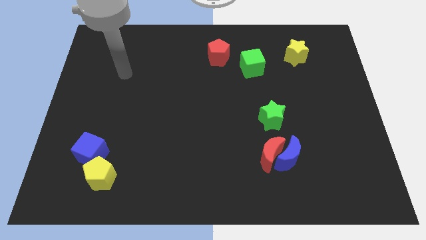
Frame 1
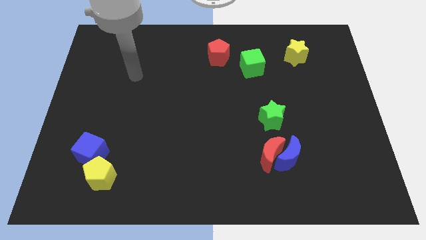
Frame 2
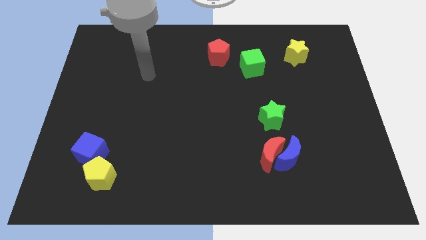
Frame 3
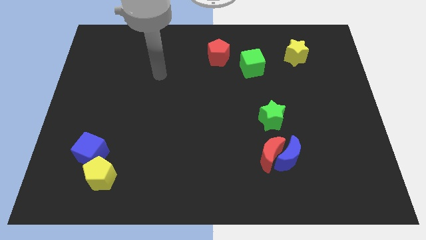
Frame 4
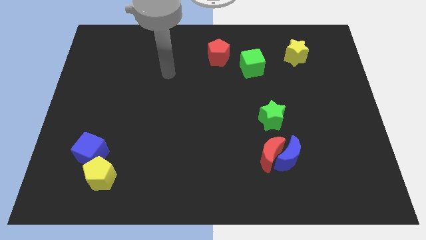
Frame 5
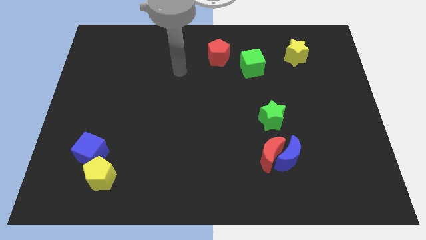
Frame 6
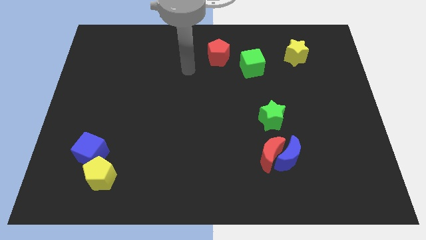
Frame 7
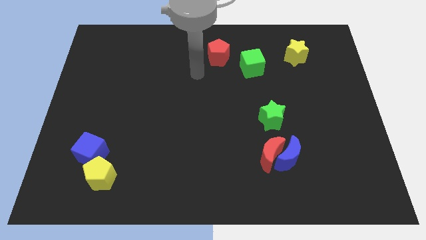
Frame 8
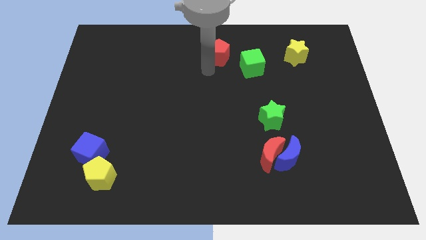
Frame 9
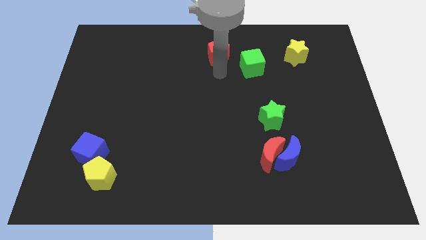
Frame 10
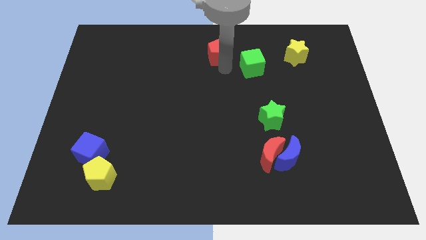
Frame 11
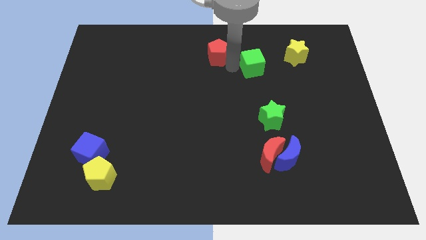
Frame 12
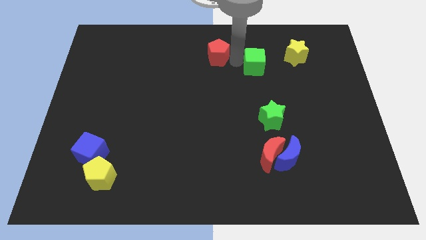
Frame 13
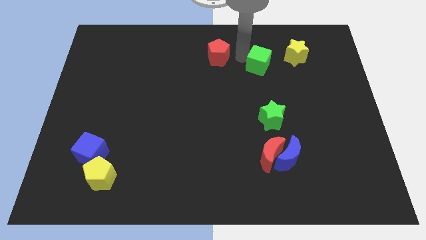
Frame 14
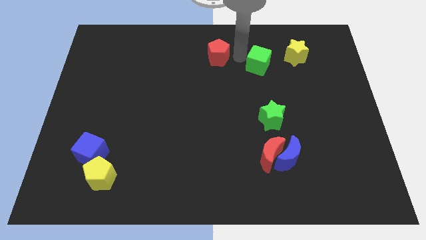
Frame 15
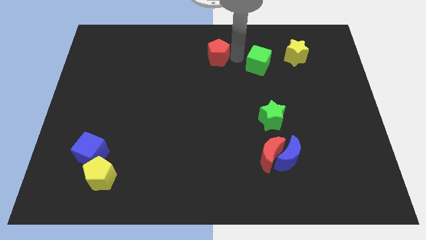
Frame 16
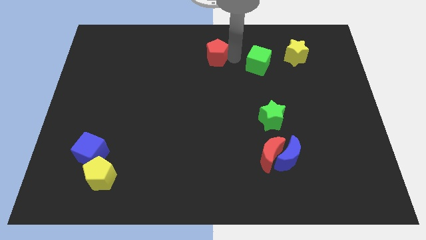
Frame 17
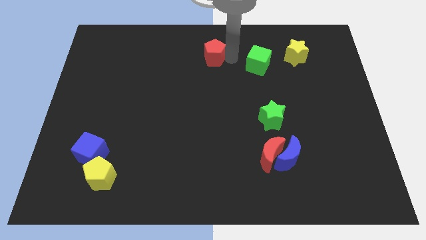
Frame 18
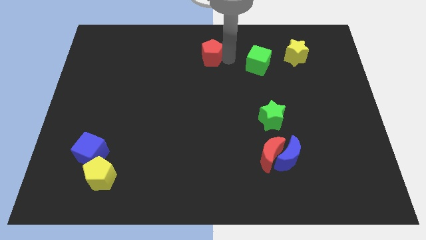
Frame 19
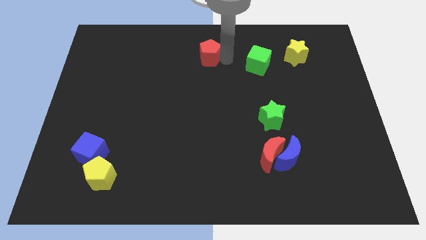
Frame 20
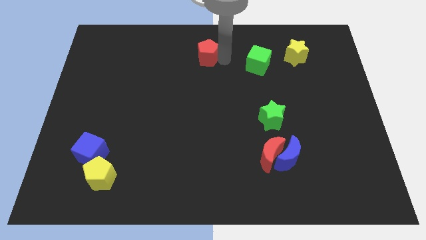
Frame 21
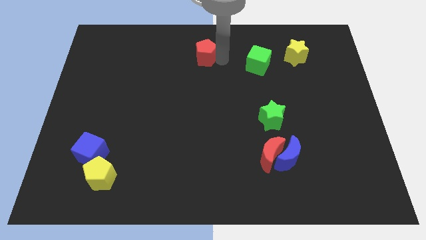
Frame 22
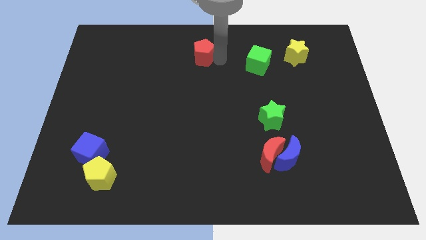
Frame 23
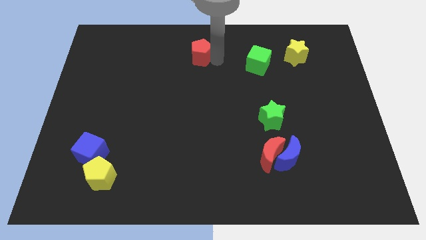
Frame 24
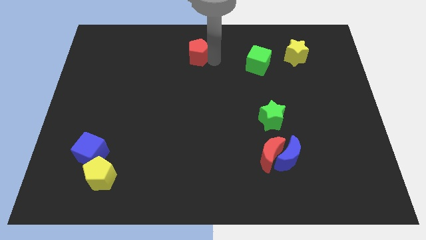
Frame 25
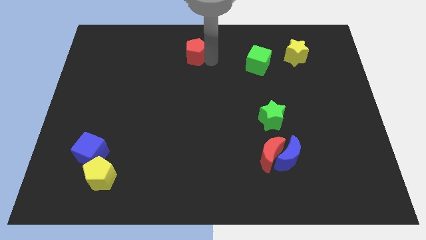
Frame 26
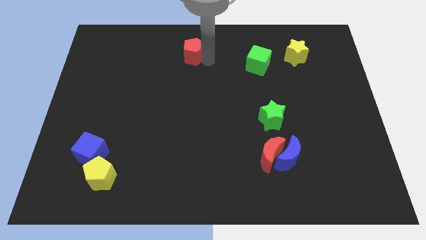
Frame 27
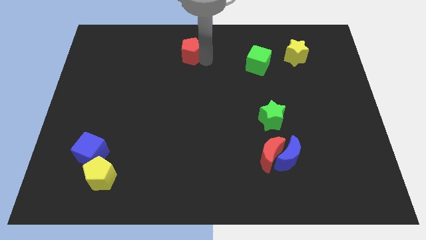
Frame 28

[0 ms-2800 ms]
push the red pentagon slightly left

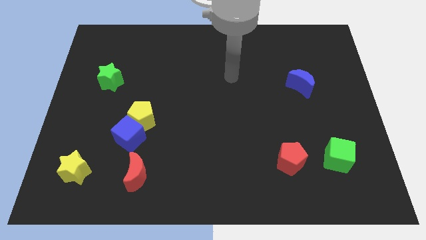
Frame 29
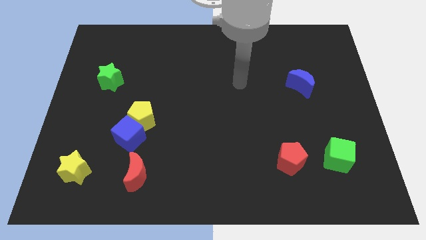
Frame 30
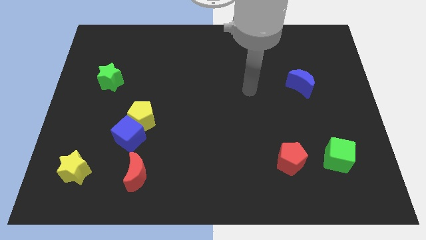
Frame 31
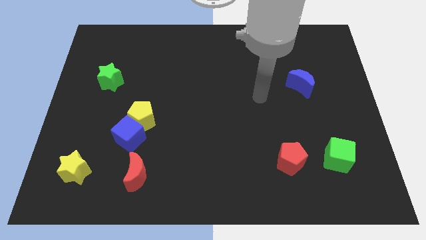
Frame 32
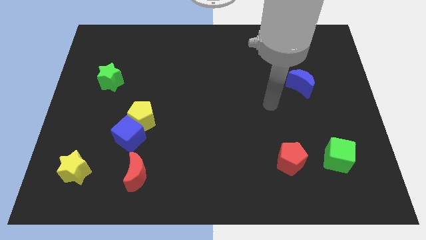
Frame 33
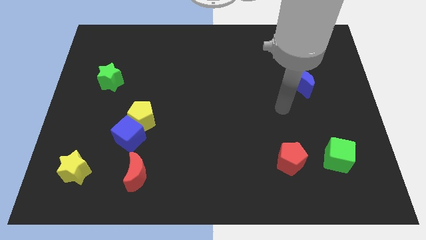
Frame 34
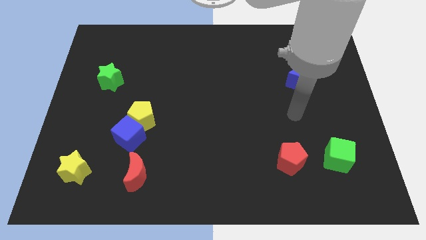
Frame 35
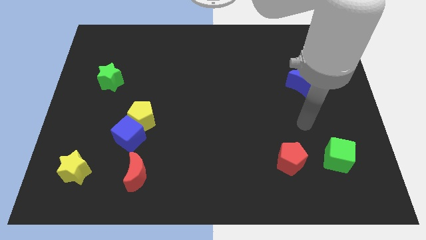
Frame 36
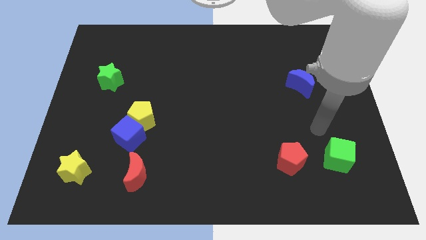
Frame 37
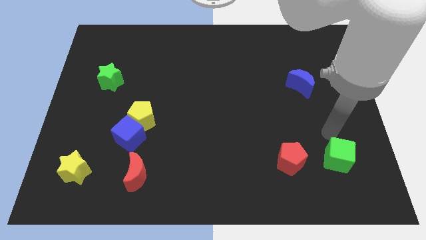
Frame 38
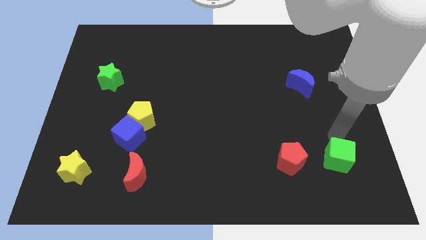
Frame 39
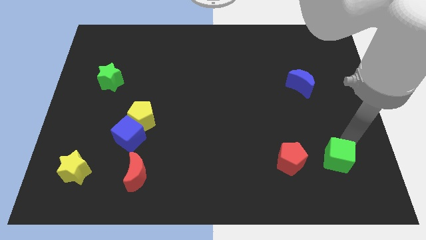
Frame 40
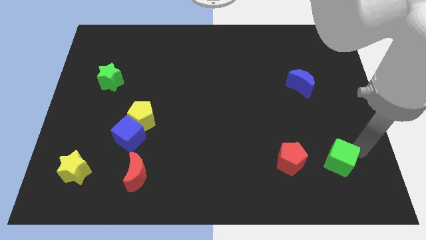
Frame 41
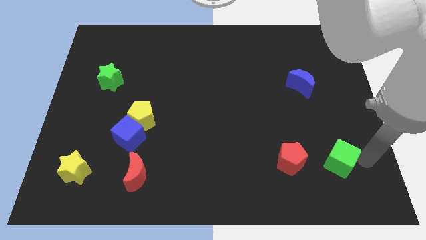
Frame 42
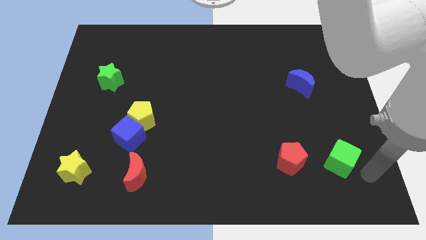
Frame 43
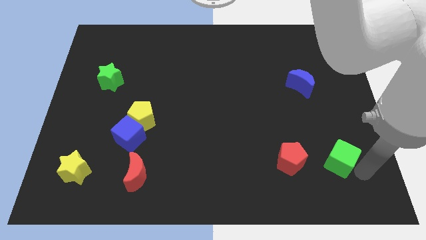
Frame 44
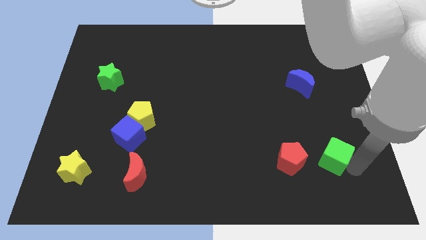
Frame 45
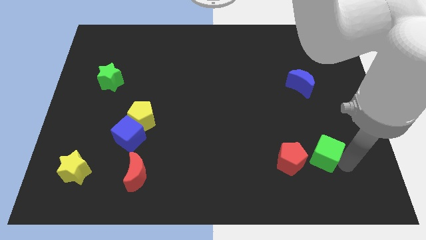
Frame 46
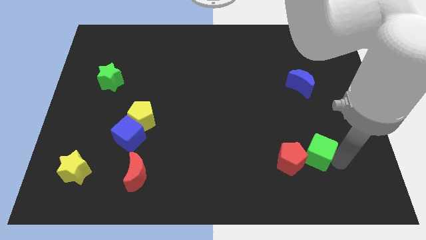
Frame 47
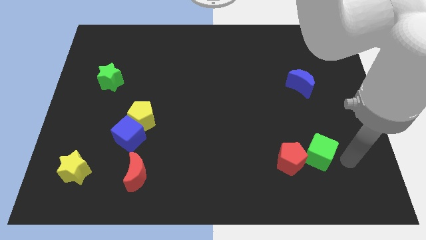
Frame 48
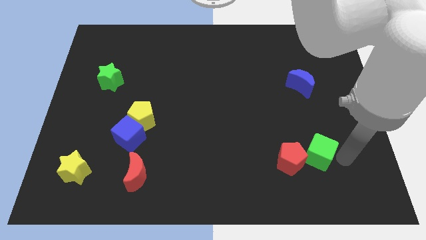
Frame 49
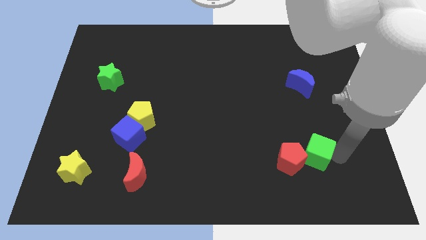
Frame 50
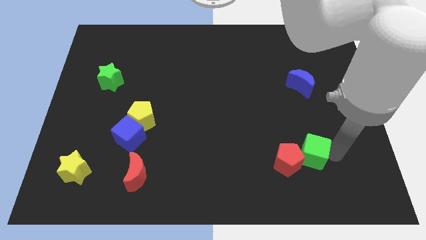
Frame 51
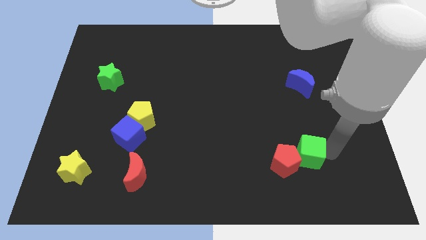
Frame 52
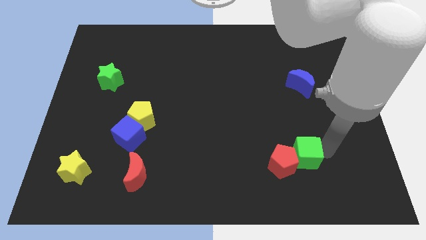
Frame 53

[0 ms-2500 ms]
slightly slide the green cube left

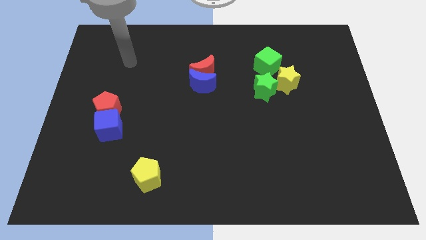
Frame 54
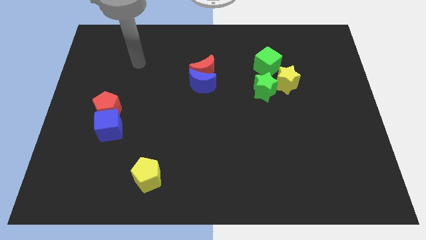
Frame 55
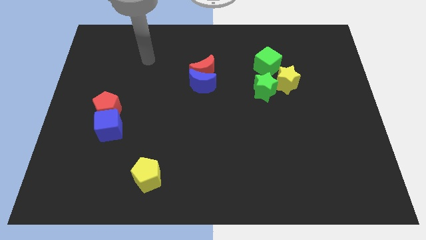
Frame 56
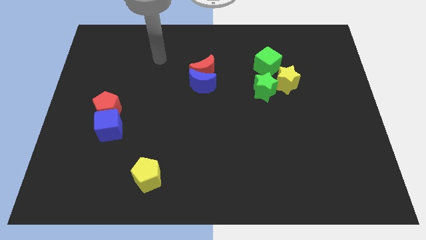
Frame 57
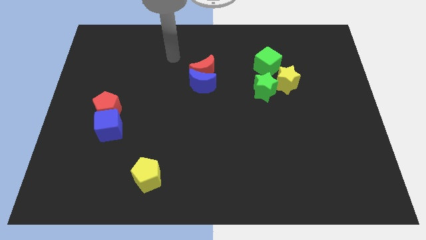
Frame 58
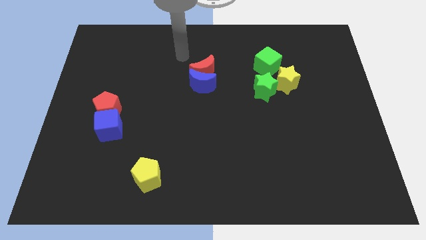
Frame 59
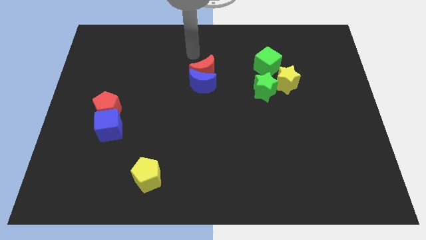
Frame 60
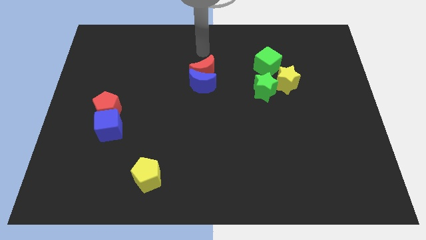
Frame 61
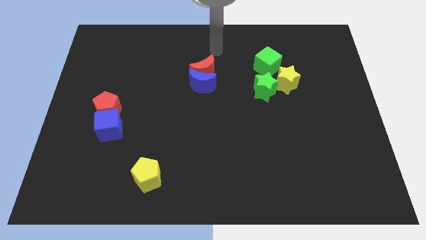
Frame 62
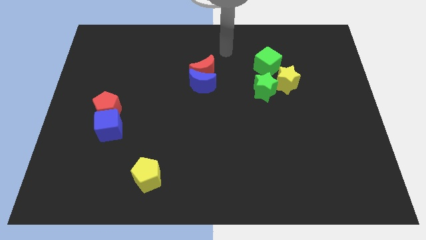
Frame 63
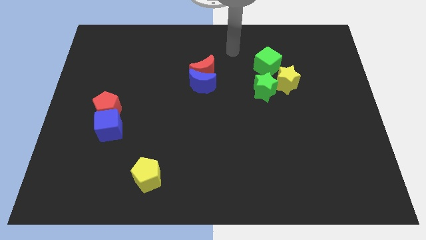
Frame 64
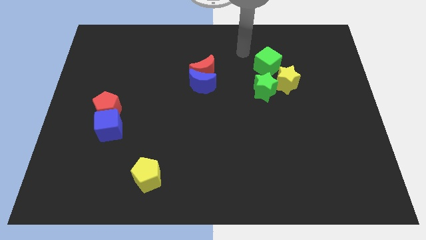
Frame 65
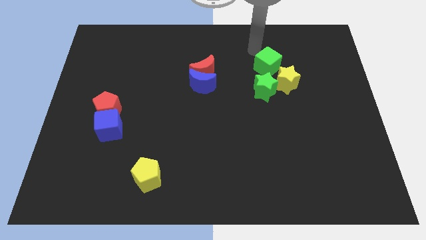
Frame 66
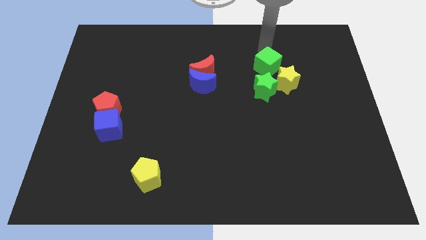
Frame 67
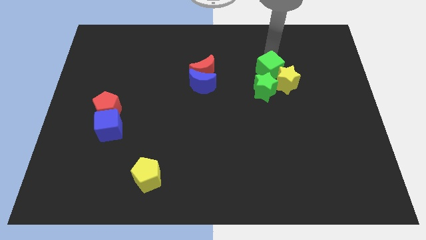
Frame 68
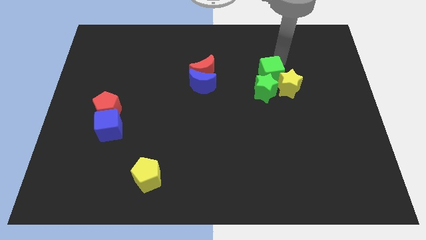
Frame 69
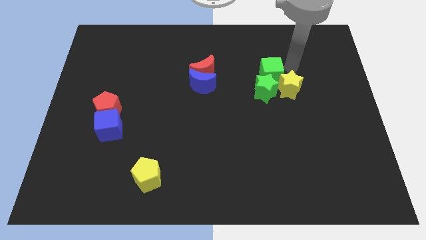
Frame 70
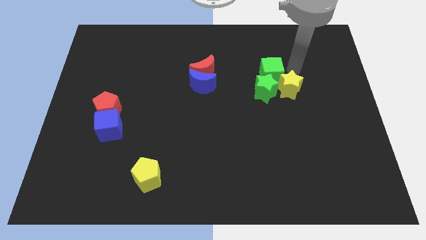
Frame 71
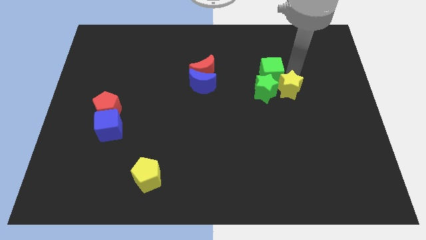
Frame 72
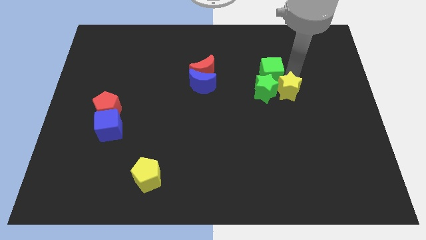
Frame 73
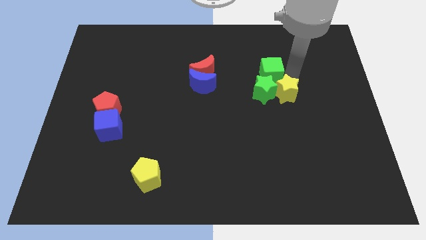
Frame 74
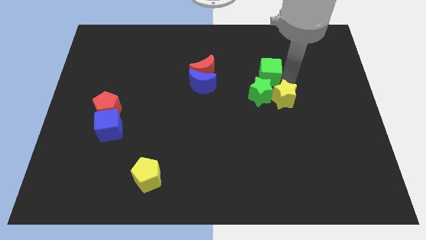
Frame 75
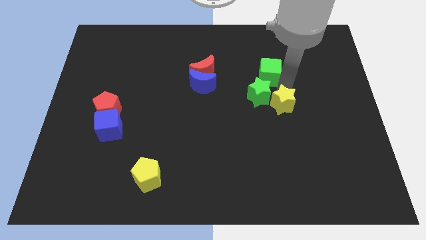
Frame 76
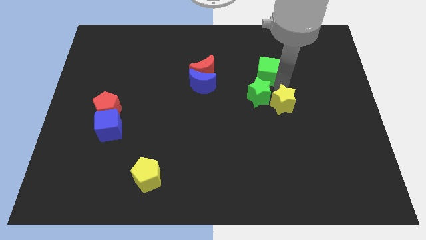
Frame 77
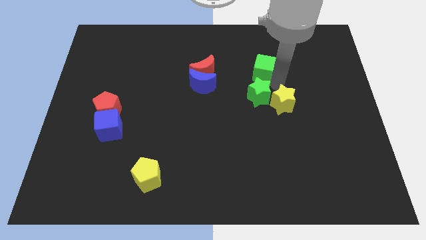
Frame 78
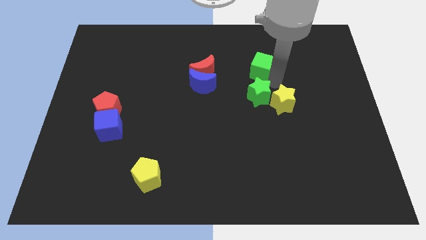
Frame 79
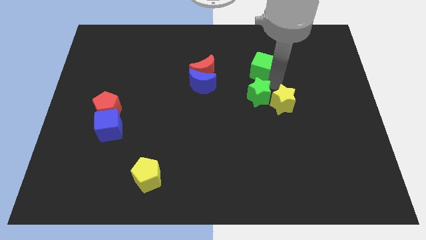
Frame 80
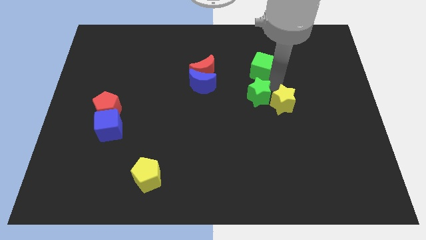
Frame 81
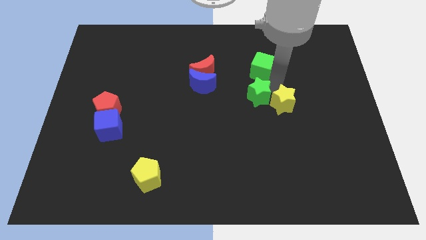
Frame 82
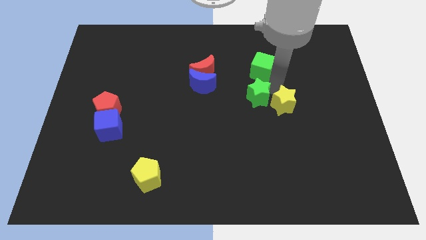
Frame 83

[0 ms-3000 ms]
slightly slide the yellow star down

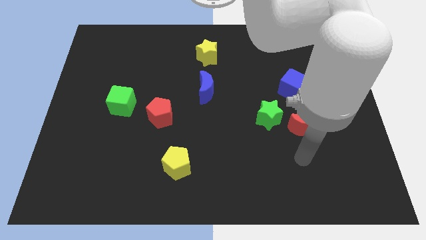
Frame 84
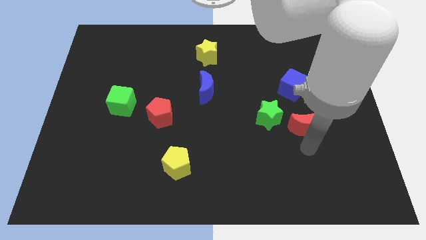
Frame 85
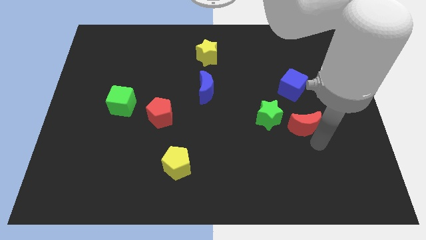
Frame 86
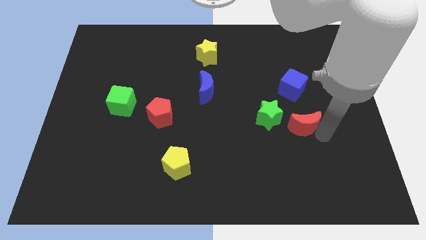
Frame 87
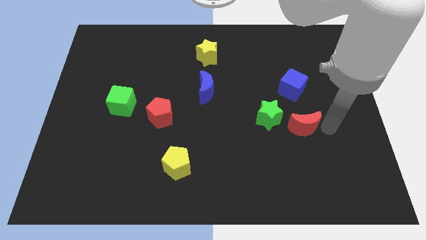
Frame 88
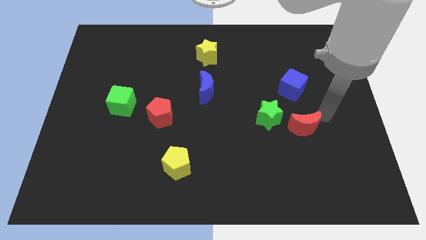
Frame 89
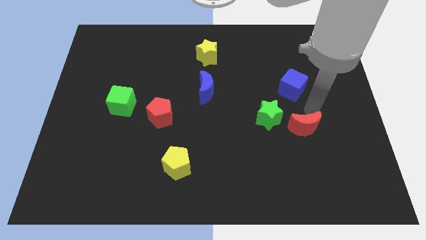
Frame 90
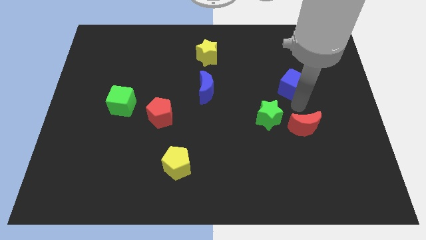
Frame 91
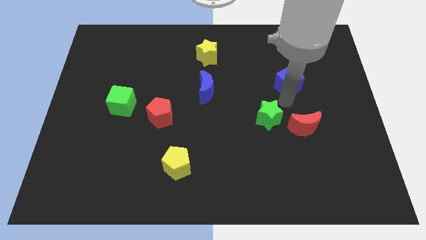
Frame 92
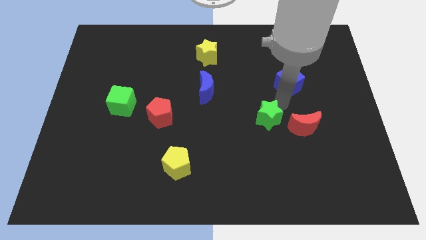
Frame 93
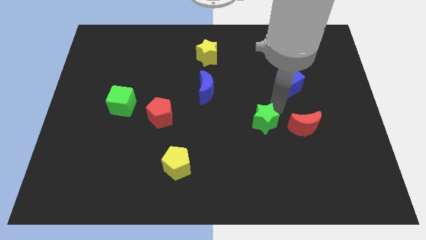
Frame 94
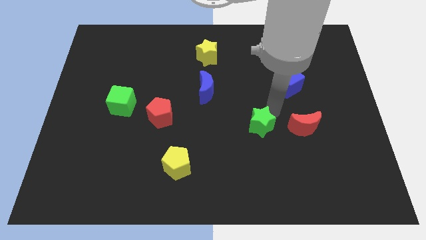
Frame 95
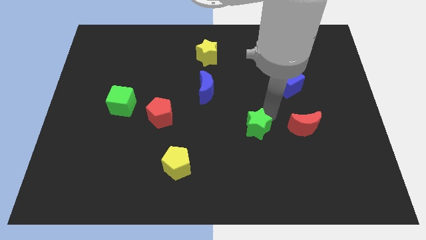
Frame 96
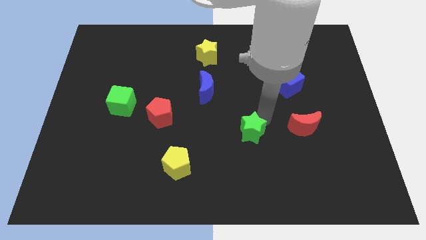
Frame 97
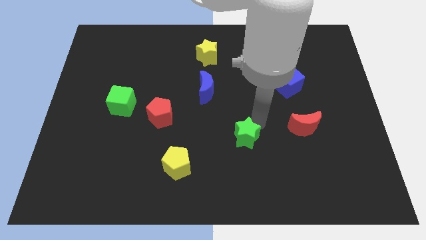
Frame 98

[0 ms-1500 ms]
push the green star down and left diagonally slightly
